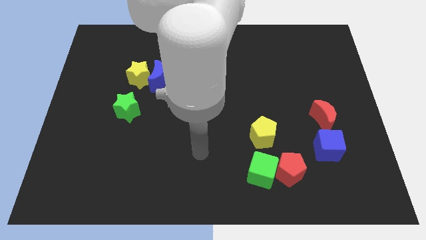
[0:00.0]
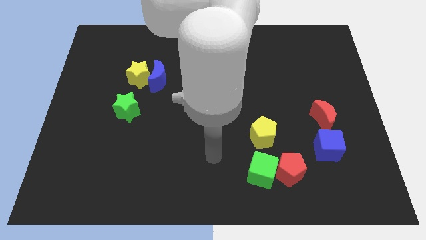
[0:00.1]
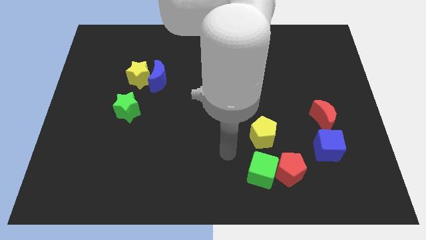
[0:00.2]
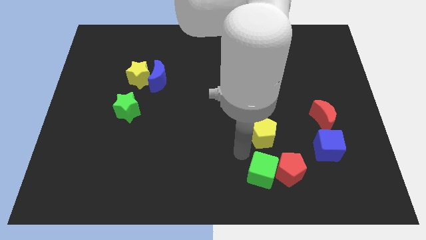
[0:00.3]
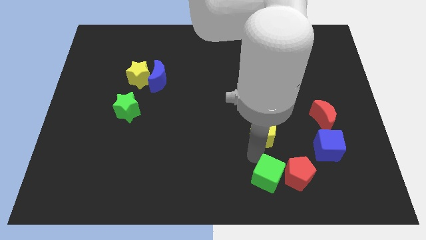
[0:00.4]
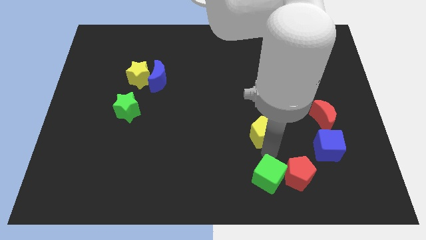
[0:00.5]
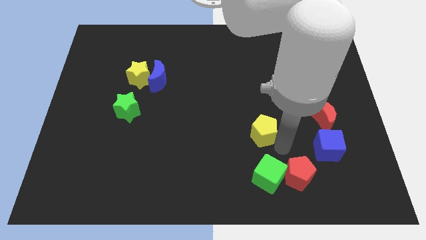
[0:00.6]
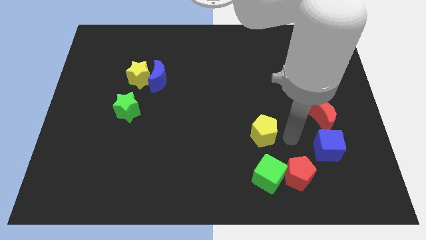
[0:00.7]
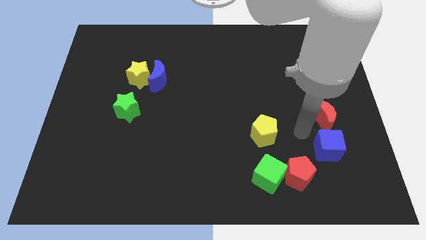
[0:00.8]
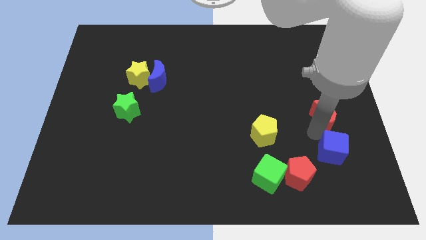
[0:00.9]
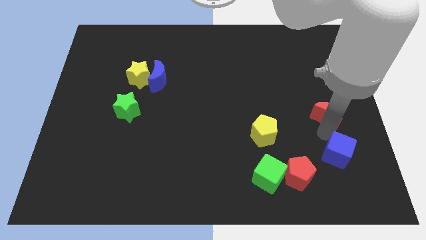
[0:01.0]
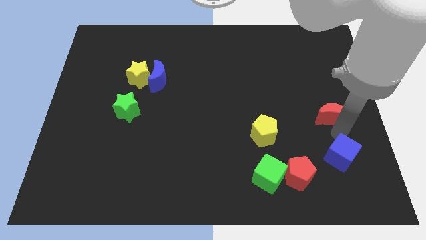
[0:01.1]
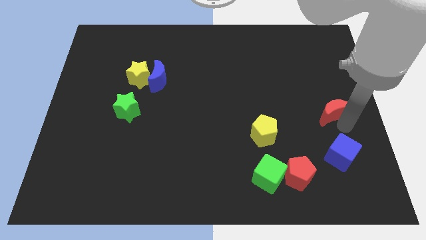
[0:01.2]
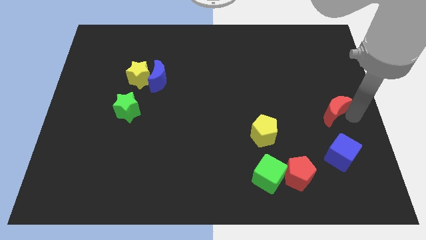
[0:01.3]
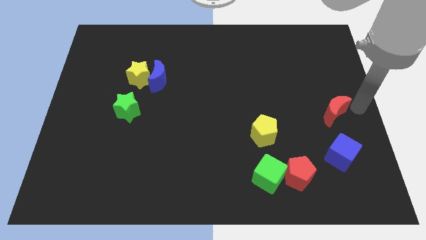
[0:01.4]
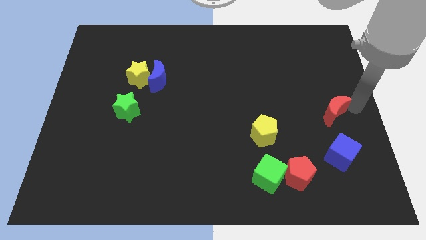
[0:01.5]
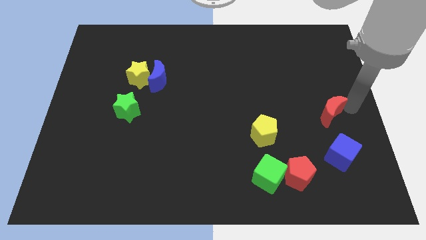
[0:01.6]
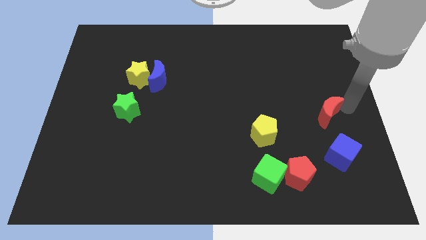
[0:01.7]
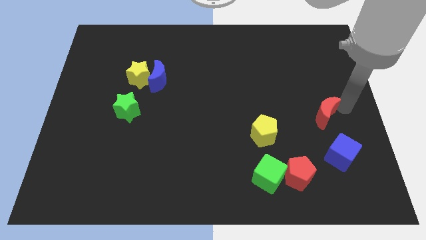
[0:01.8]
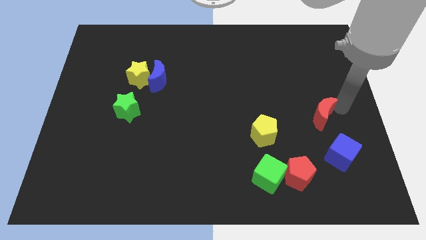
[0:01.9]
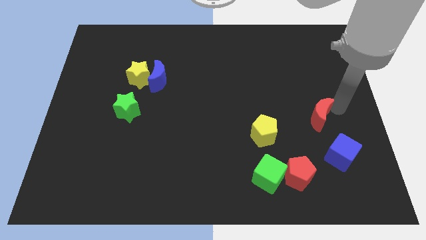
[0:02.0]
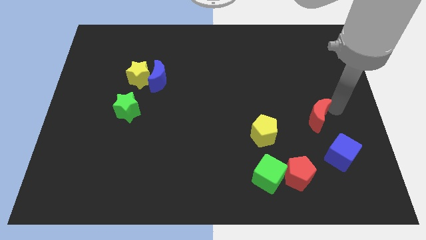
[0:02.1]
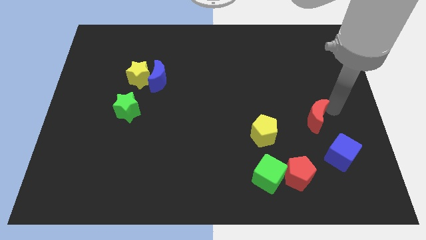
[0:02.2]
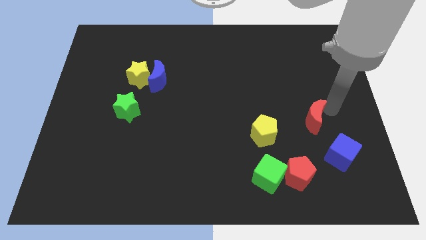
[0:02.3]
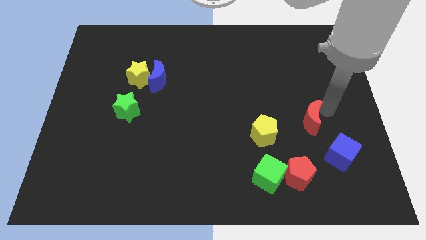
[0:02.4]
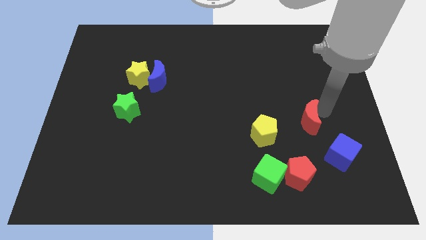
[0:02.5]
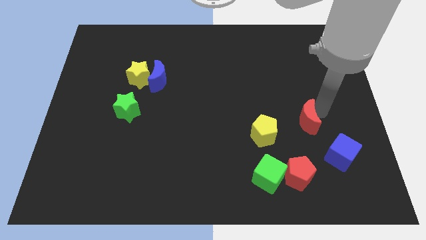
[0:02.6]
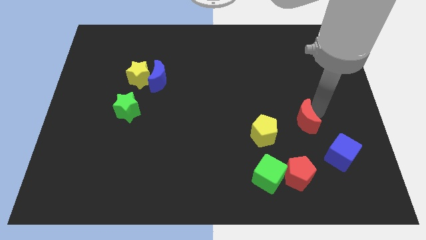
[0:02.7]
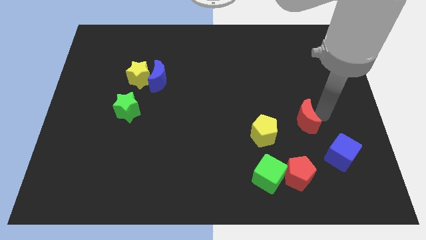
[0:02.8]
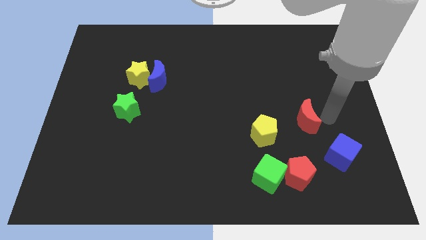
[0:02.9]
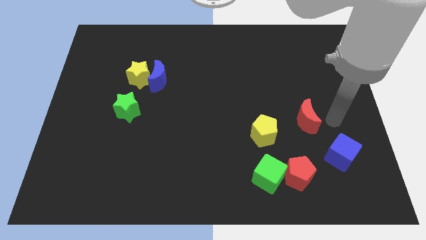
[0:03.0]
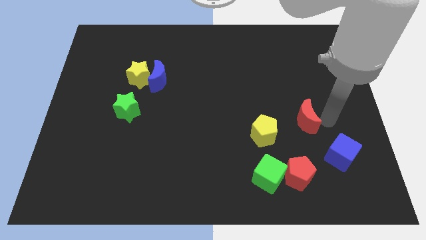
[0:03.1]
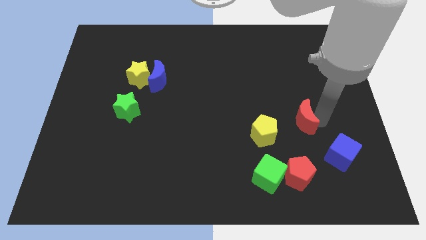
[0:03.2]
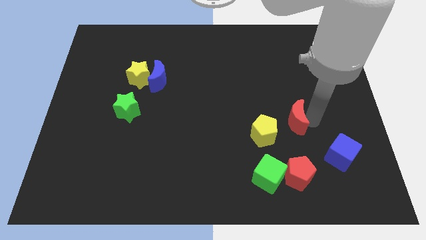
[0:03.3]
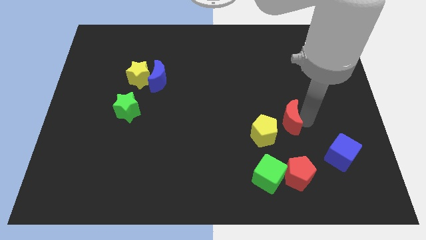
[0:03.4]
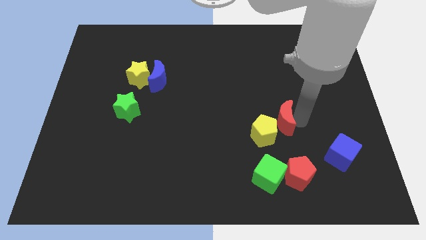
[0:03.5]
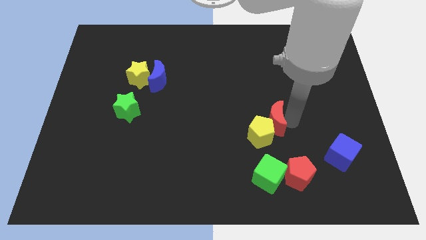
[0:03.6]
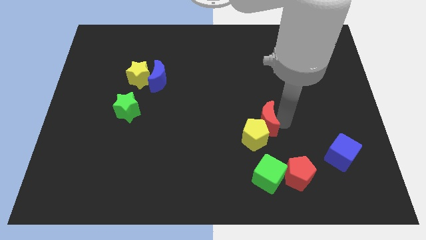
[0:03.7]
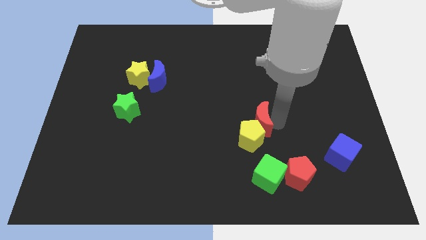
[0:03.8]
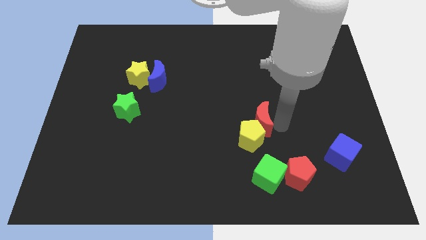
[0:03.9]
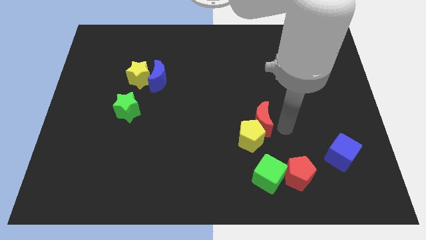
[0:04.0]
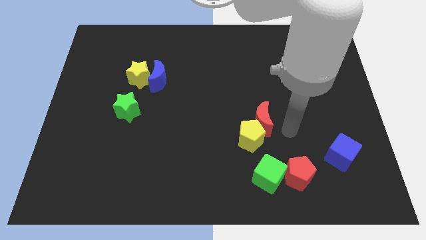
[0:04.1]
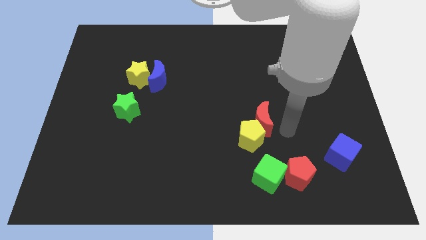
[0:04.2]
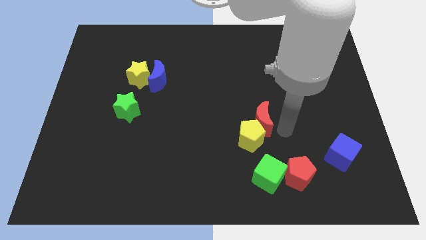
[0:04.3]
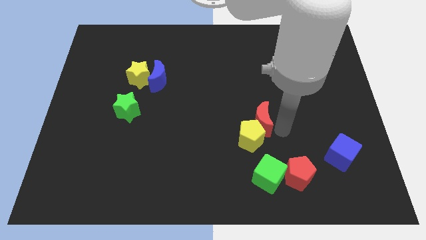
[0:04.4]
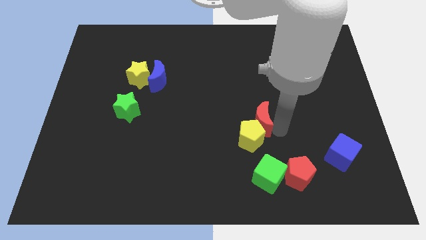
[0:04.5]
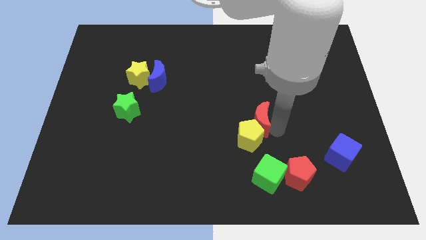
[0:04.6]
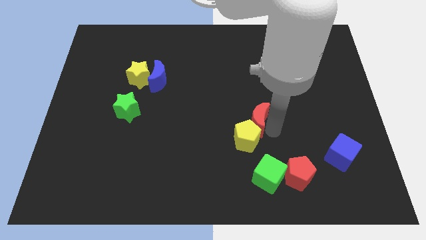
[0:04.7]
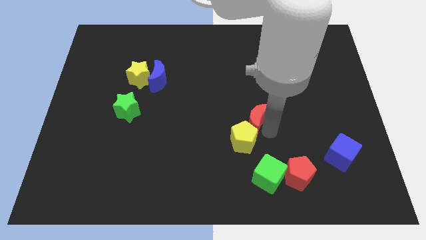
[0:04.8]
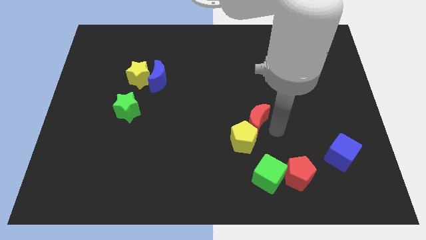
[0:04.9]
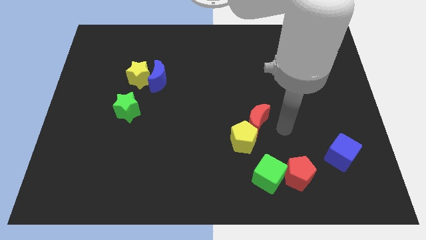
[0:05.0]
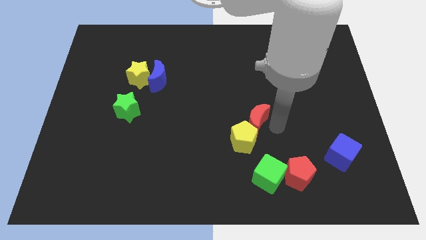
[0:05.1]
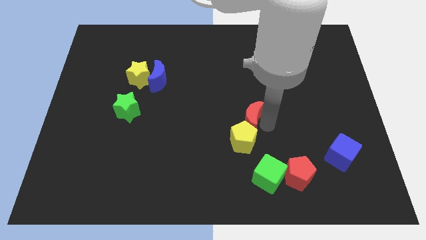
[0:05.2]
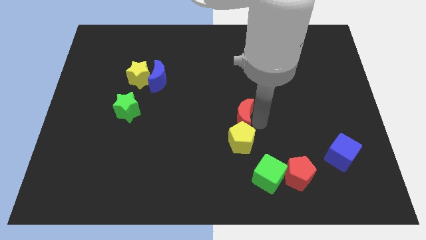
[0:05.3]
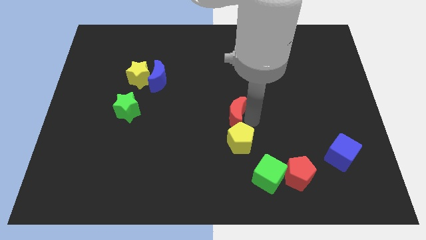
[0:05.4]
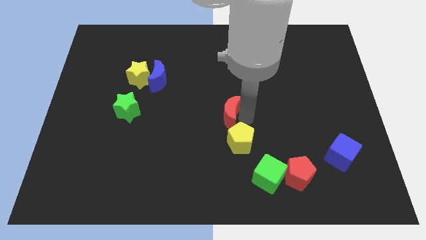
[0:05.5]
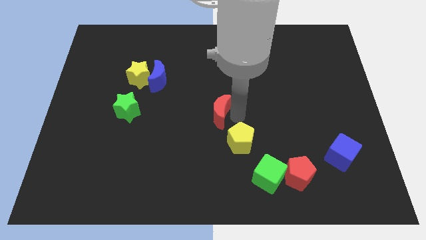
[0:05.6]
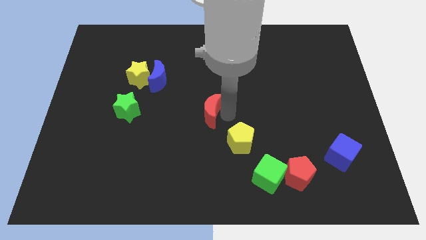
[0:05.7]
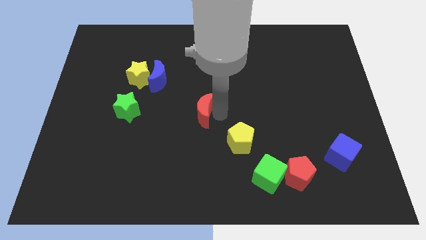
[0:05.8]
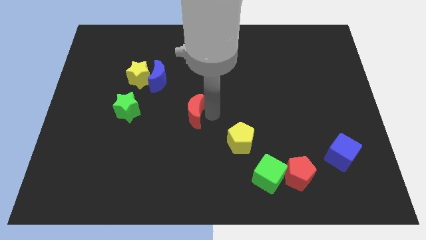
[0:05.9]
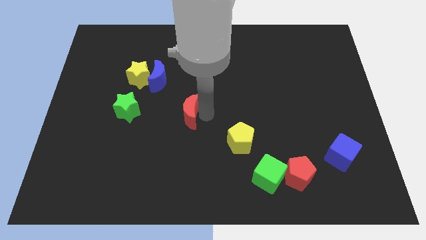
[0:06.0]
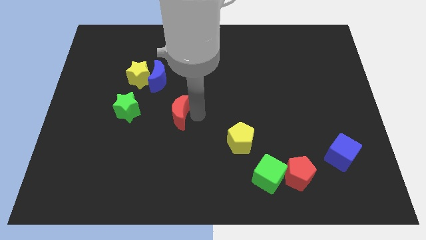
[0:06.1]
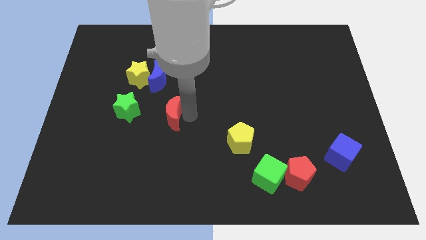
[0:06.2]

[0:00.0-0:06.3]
push the red moon below the blue moon
